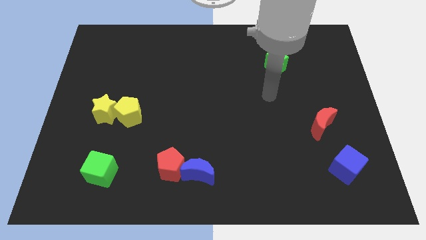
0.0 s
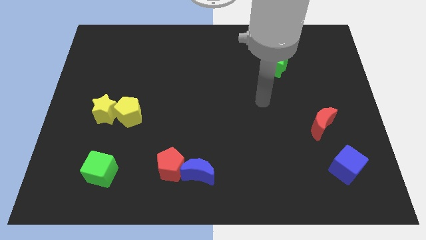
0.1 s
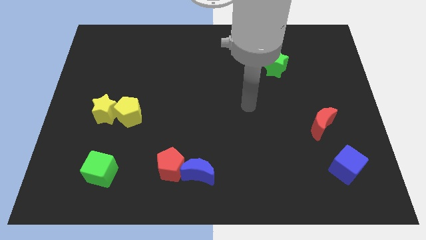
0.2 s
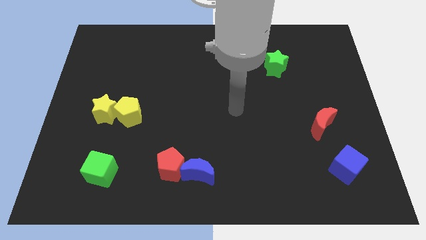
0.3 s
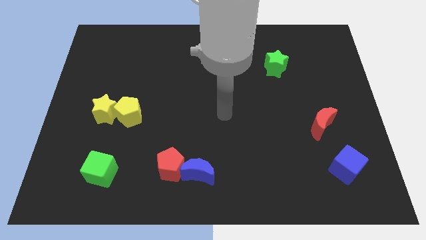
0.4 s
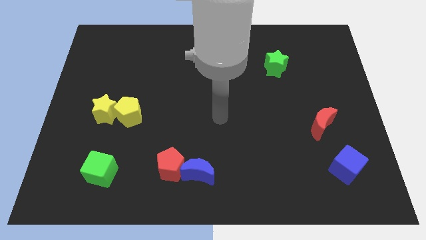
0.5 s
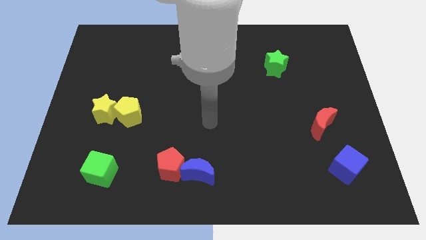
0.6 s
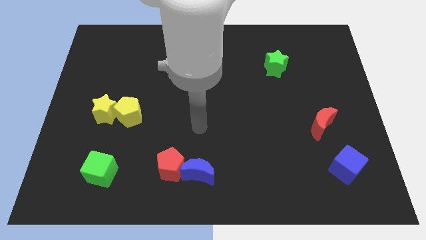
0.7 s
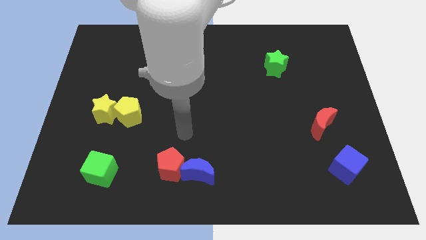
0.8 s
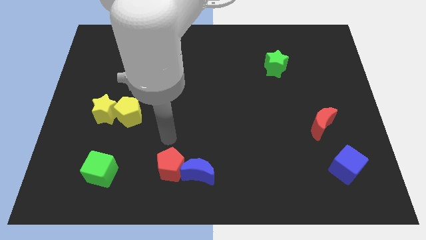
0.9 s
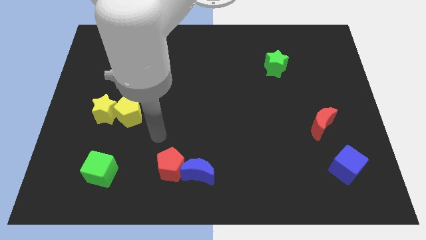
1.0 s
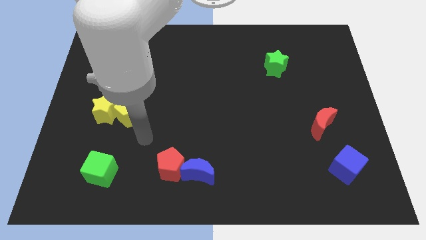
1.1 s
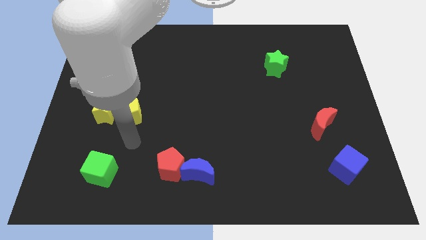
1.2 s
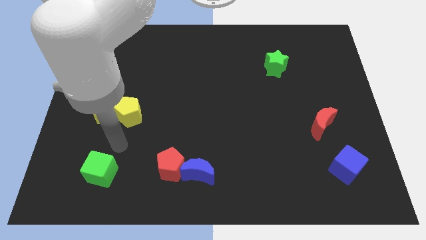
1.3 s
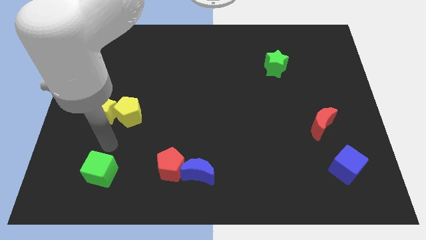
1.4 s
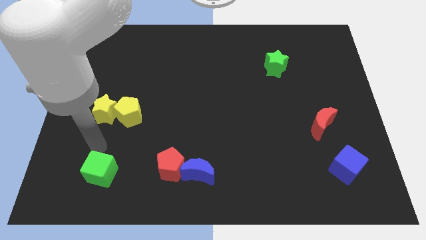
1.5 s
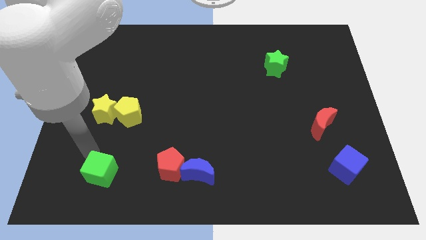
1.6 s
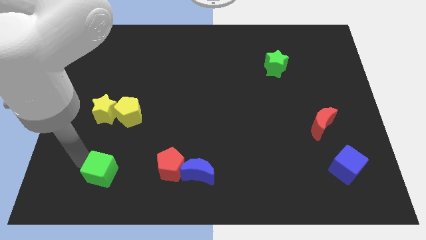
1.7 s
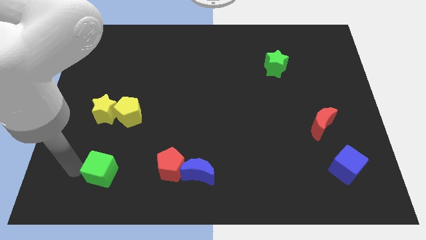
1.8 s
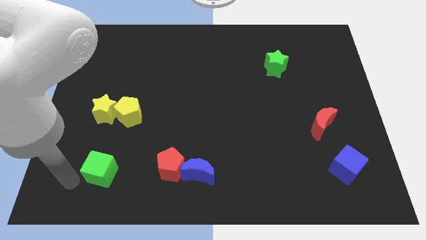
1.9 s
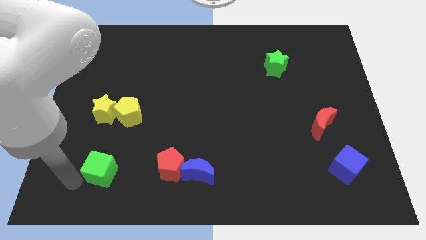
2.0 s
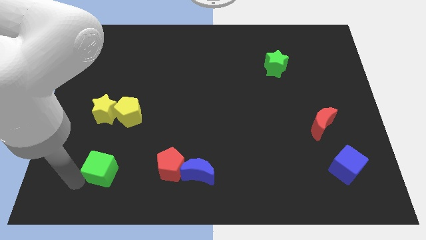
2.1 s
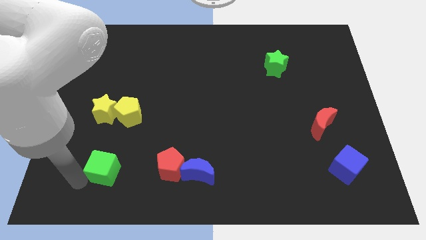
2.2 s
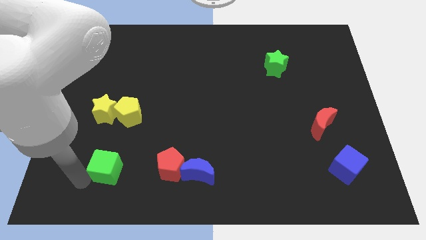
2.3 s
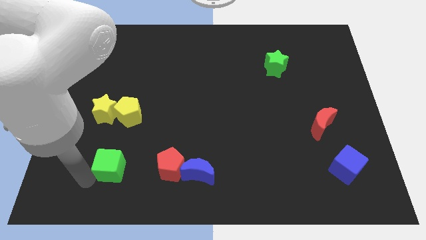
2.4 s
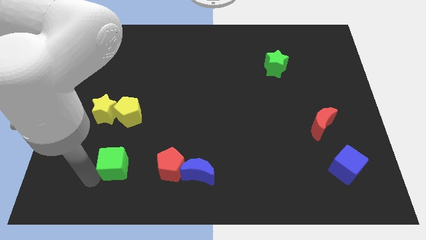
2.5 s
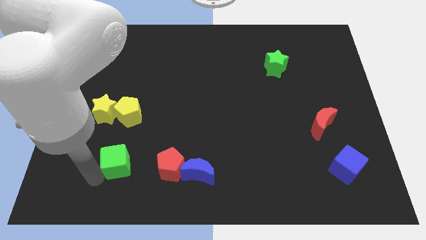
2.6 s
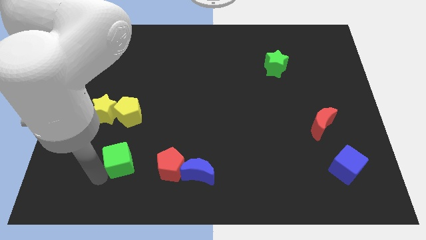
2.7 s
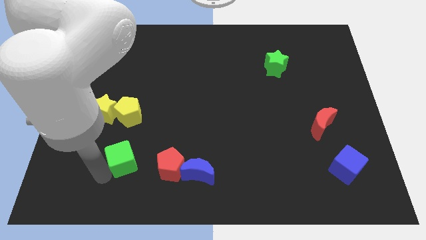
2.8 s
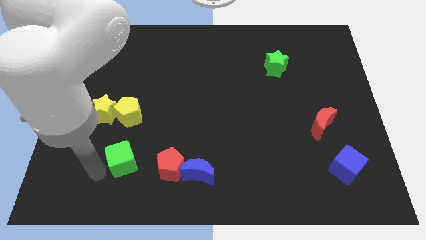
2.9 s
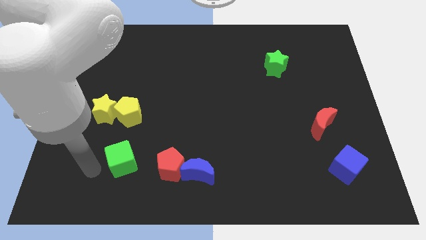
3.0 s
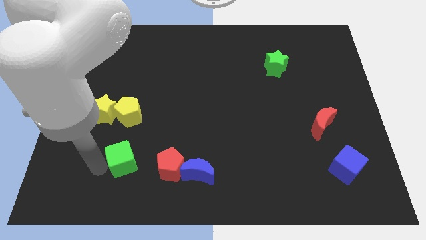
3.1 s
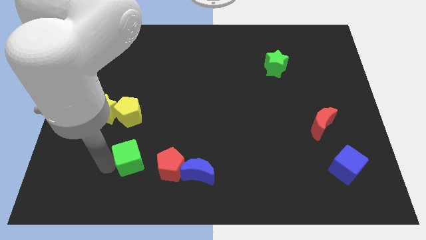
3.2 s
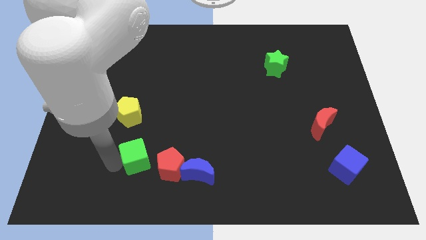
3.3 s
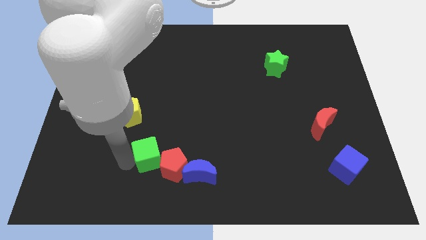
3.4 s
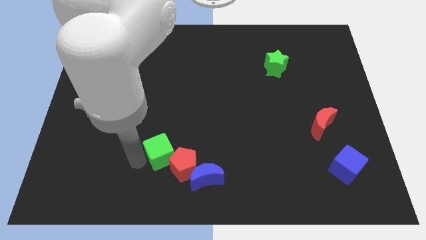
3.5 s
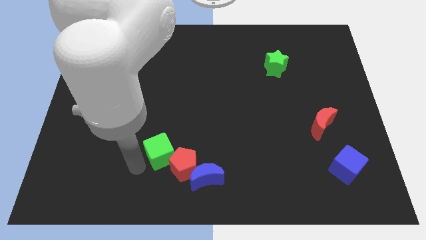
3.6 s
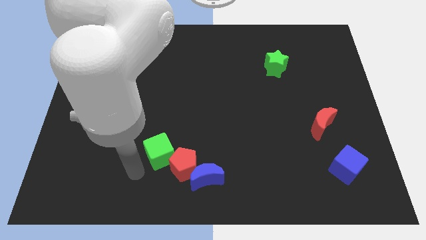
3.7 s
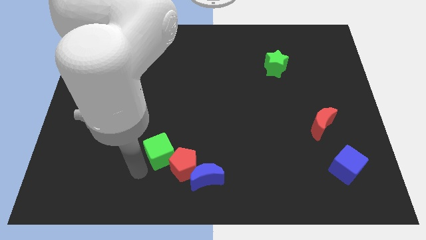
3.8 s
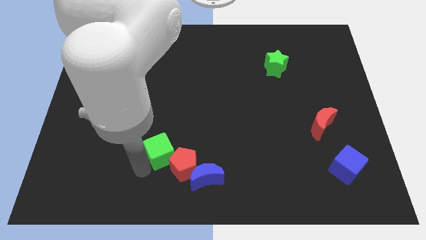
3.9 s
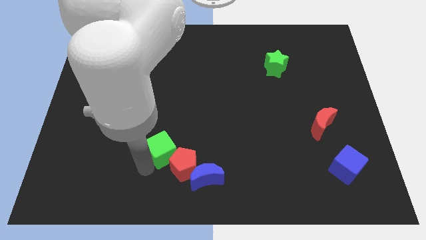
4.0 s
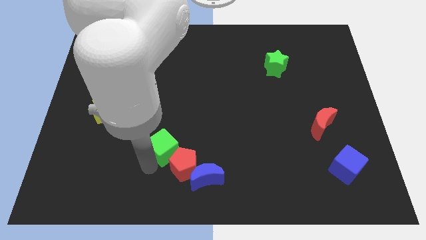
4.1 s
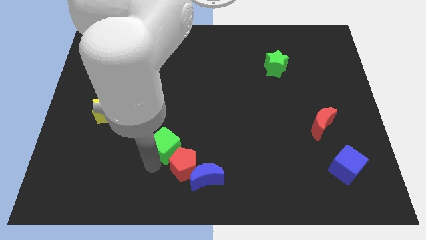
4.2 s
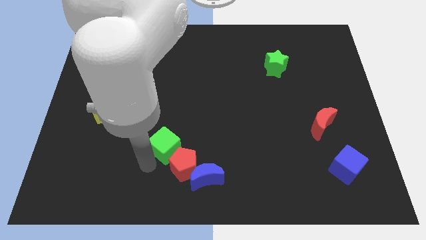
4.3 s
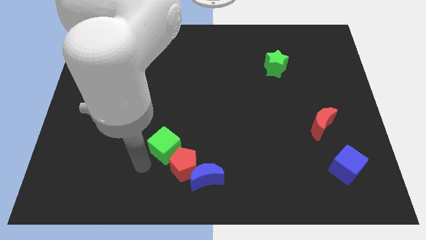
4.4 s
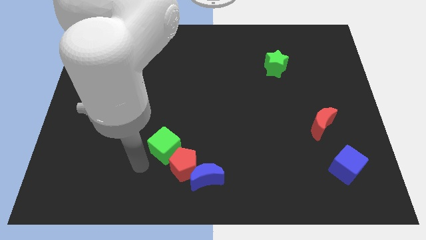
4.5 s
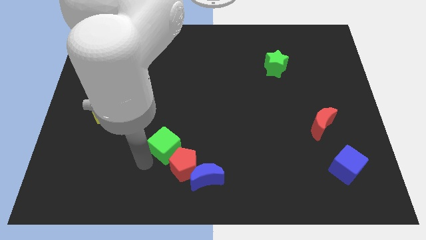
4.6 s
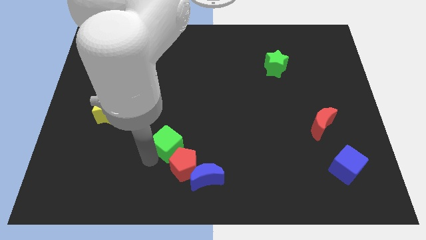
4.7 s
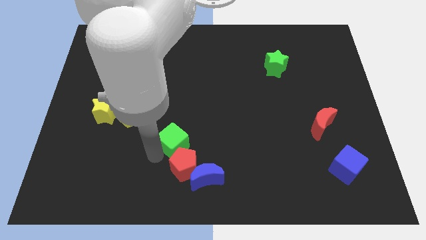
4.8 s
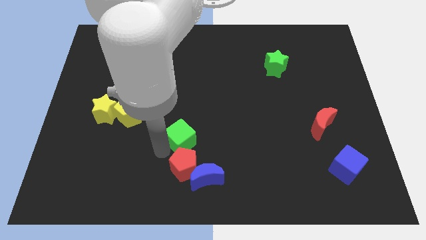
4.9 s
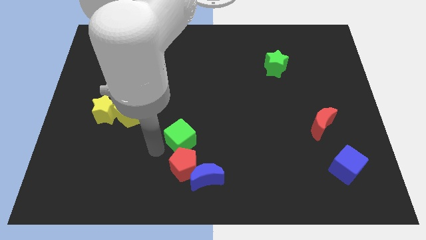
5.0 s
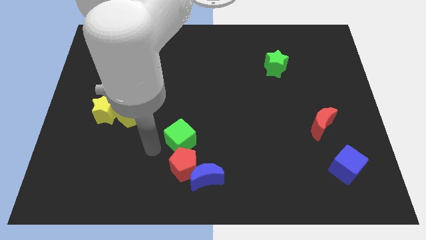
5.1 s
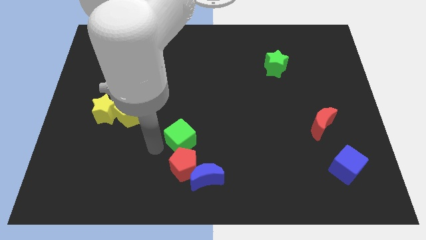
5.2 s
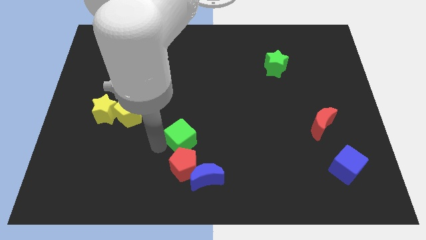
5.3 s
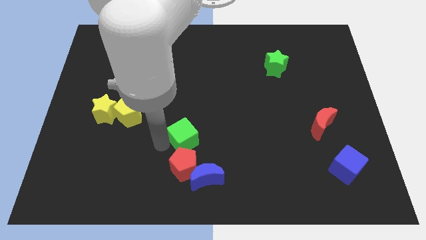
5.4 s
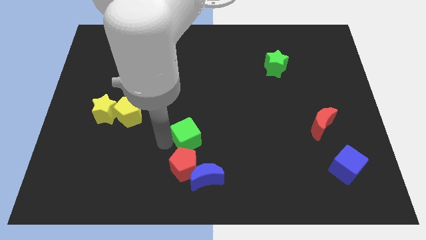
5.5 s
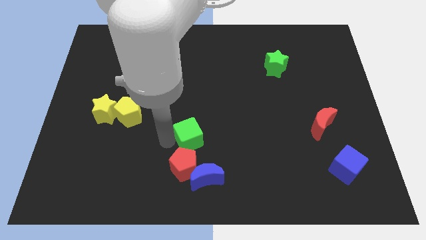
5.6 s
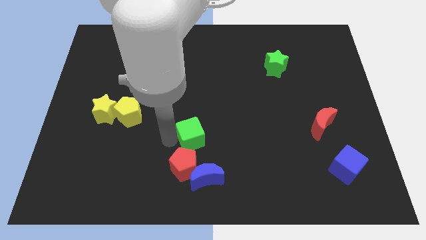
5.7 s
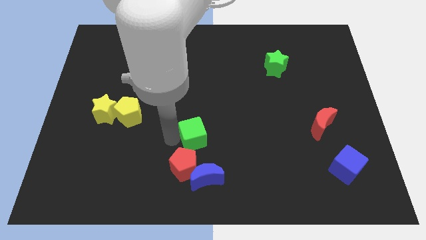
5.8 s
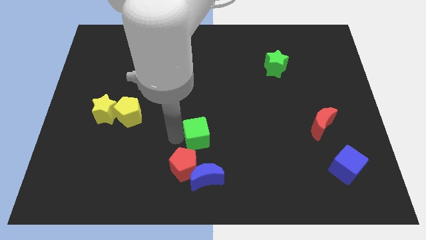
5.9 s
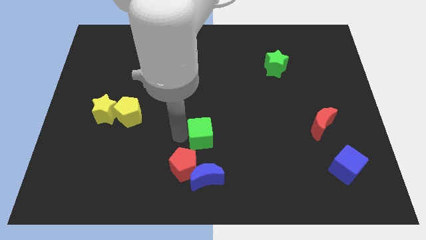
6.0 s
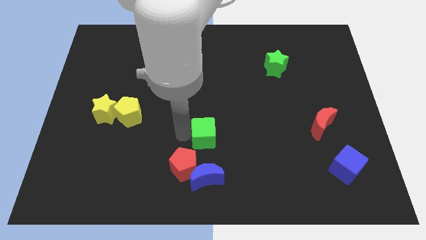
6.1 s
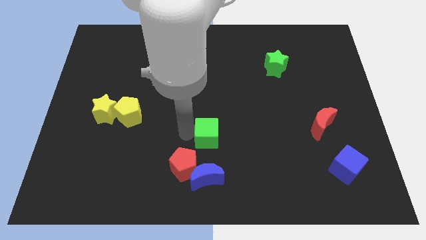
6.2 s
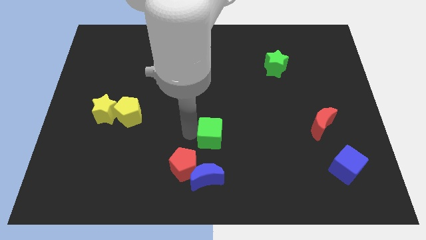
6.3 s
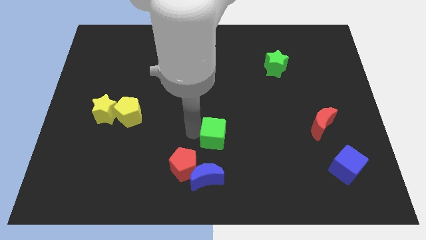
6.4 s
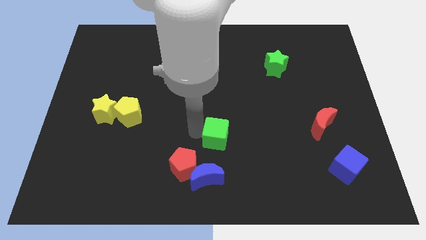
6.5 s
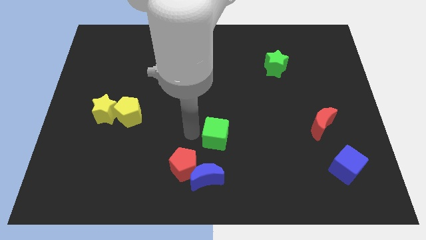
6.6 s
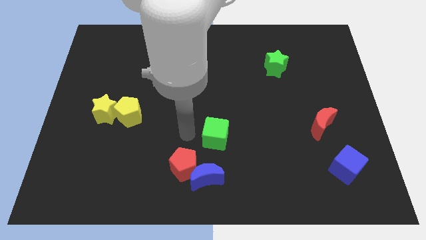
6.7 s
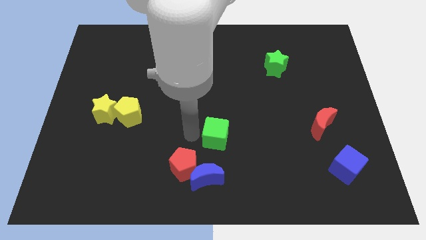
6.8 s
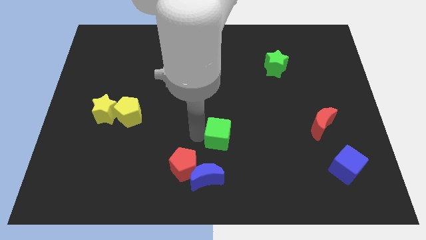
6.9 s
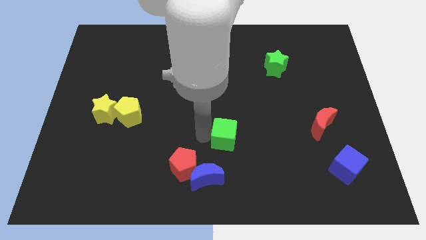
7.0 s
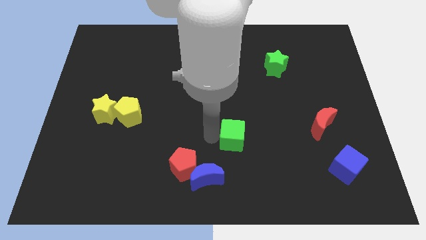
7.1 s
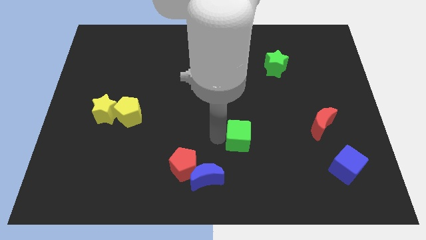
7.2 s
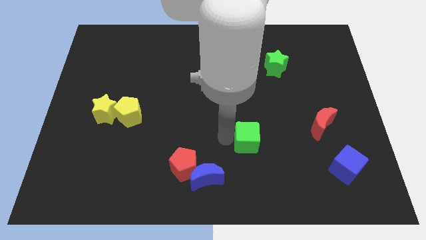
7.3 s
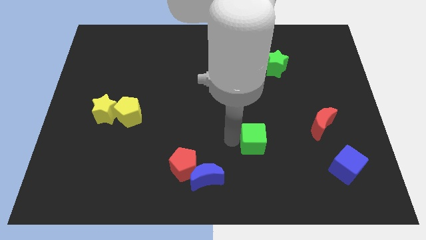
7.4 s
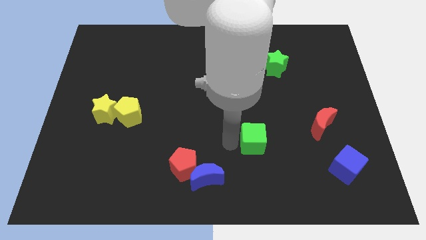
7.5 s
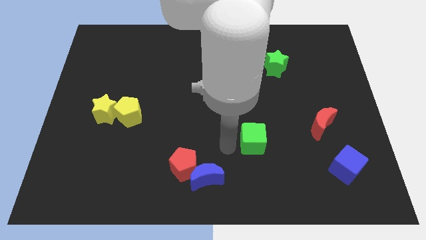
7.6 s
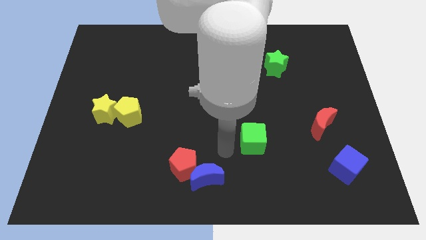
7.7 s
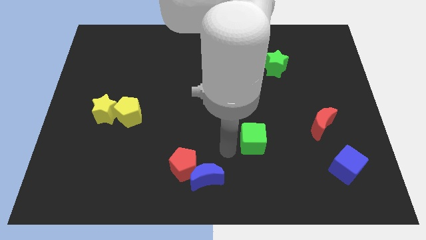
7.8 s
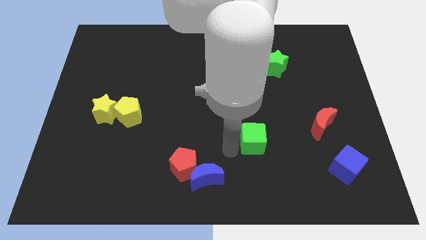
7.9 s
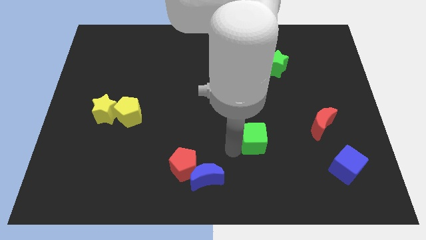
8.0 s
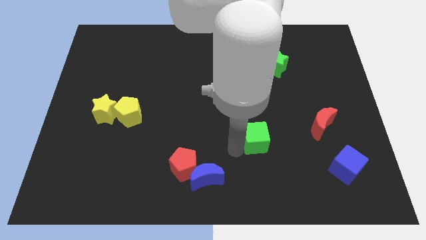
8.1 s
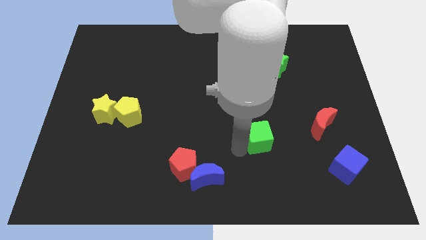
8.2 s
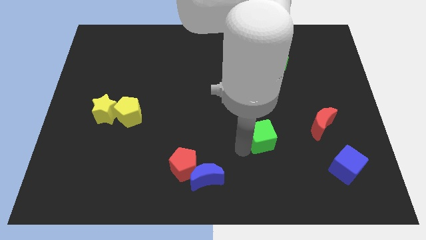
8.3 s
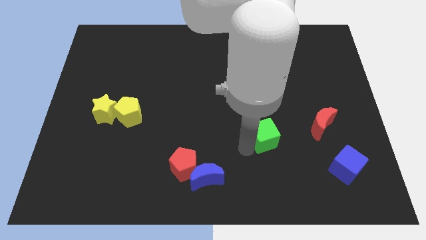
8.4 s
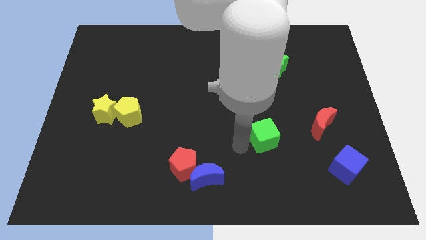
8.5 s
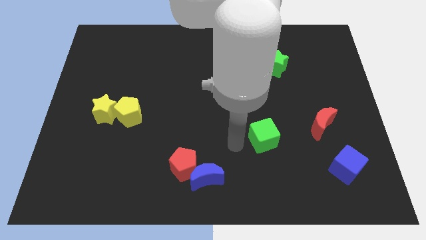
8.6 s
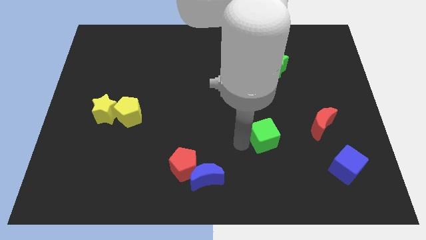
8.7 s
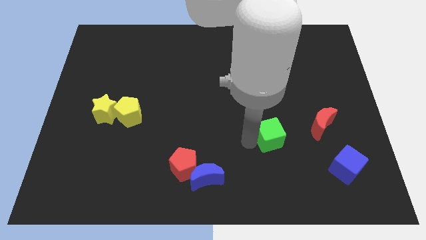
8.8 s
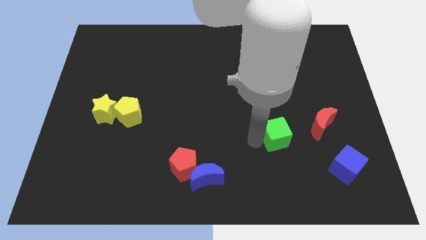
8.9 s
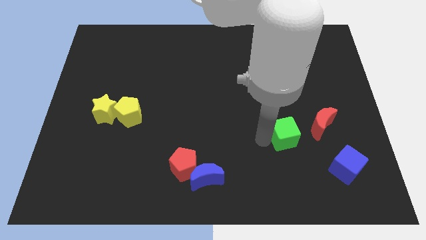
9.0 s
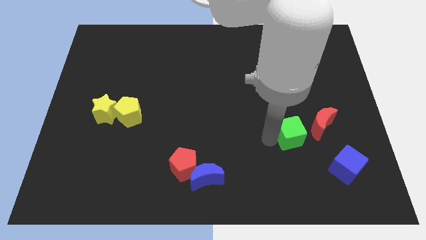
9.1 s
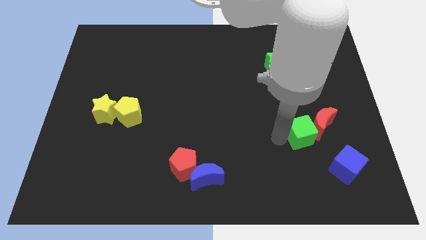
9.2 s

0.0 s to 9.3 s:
move the green cube next to the red moon
